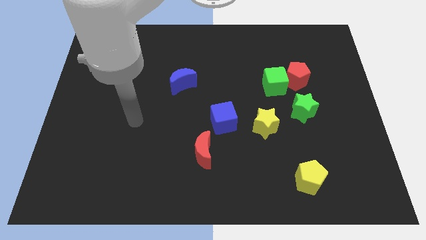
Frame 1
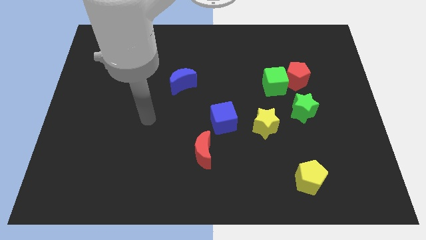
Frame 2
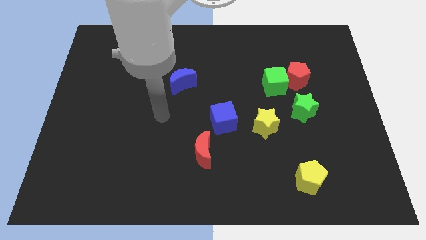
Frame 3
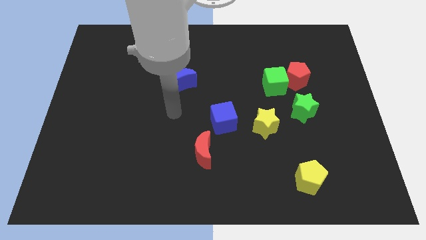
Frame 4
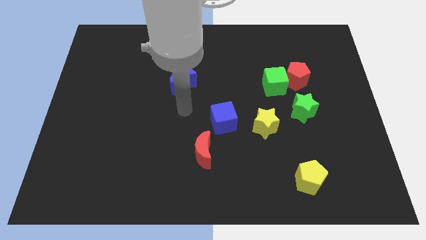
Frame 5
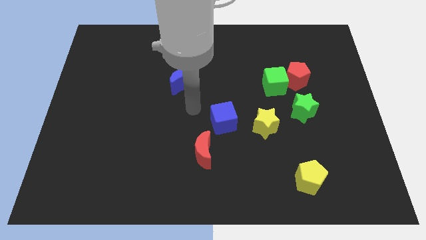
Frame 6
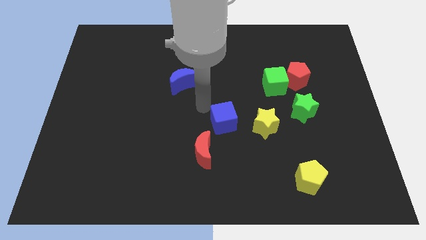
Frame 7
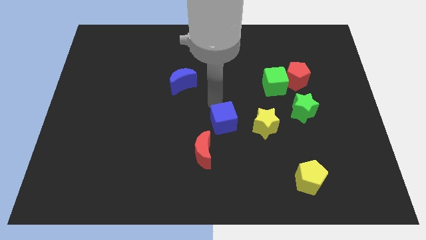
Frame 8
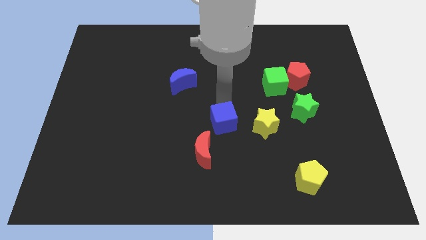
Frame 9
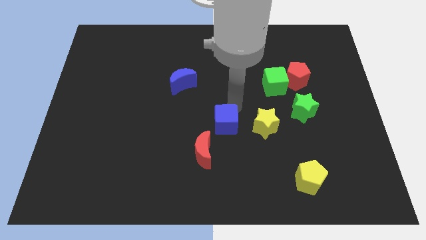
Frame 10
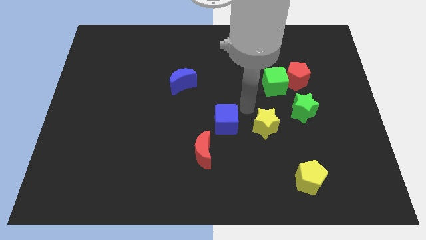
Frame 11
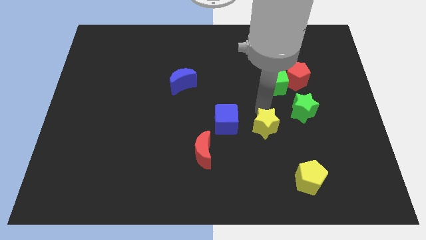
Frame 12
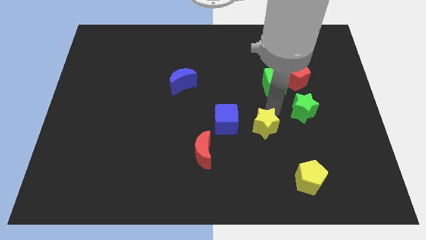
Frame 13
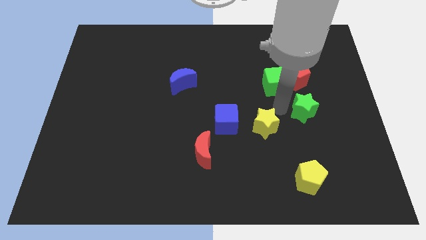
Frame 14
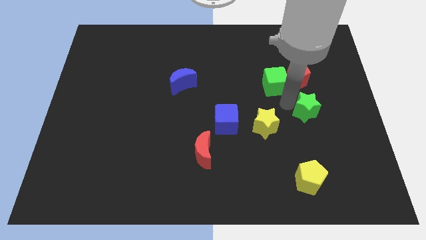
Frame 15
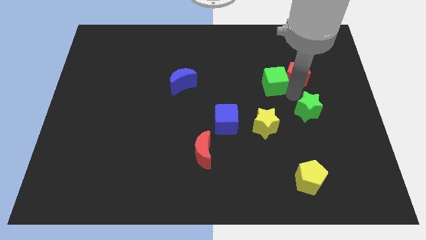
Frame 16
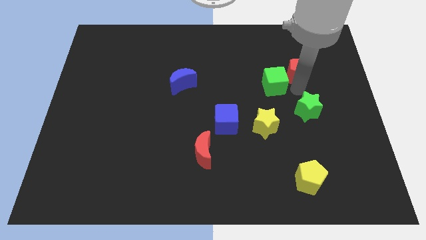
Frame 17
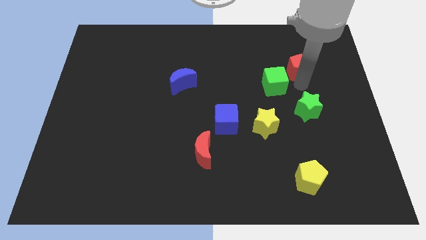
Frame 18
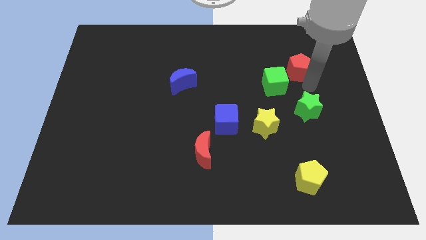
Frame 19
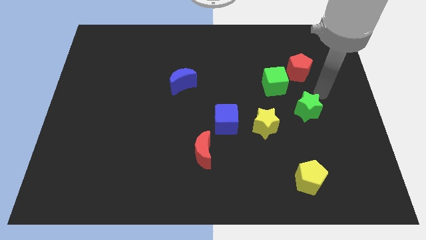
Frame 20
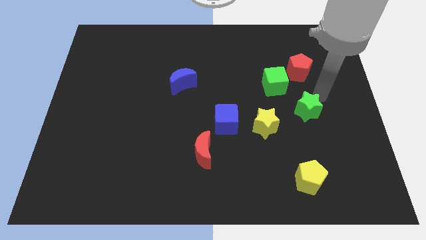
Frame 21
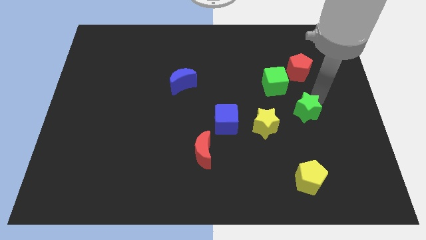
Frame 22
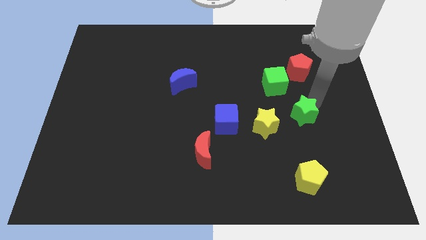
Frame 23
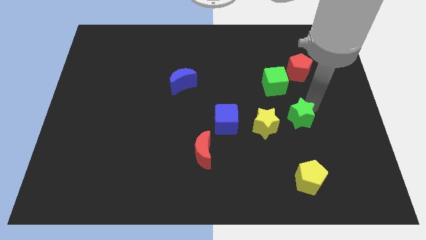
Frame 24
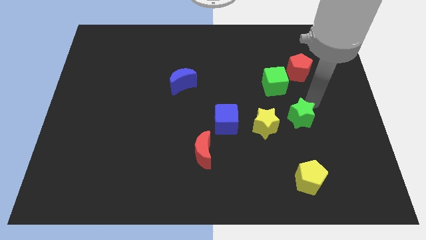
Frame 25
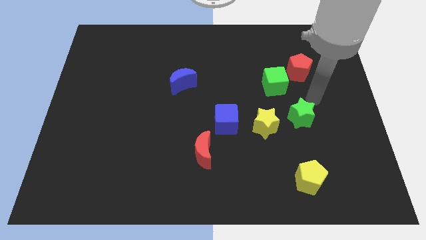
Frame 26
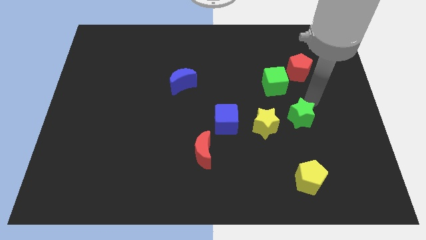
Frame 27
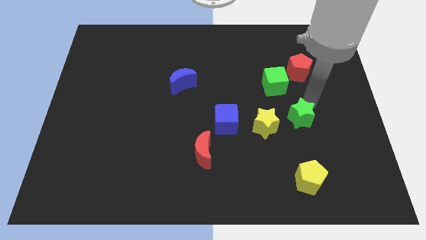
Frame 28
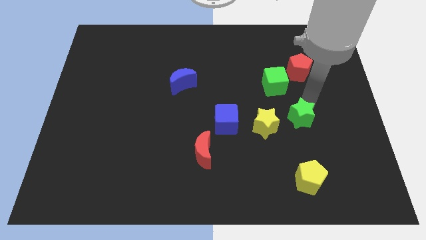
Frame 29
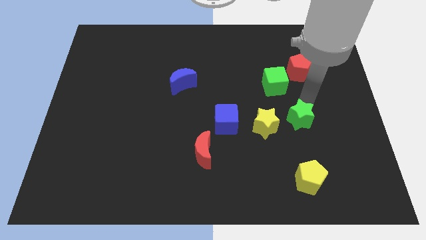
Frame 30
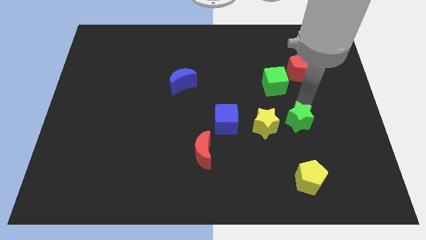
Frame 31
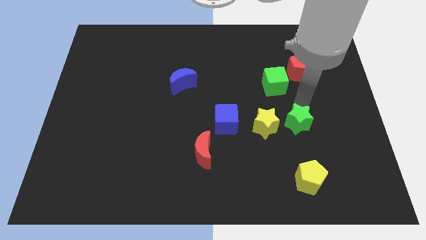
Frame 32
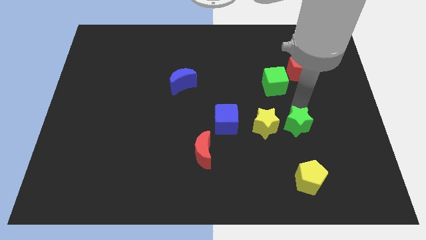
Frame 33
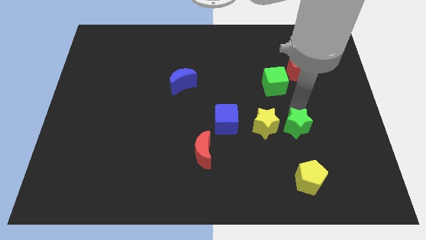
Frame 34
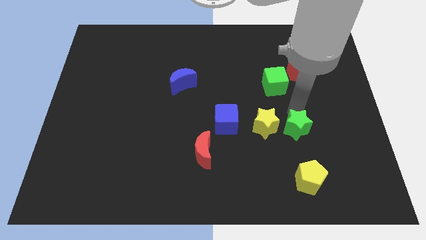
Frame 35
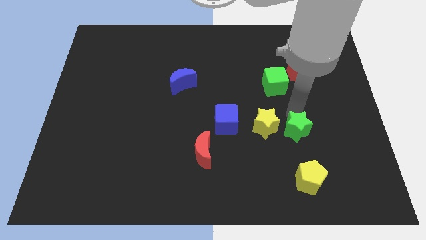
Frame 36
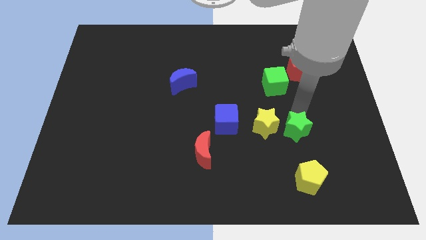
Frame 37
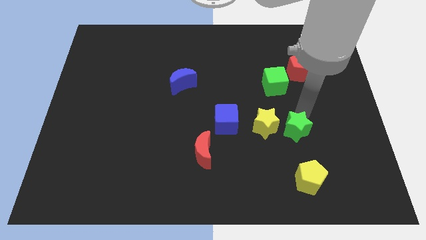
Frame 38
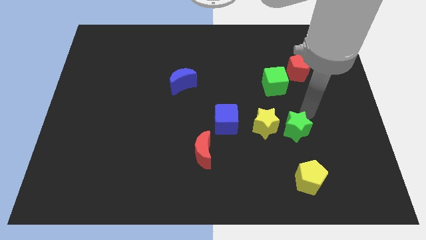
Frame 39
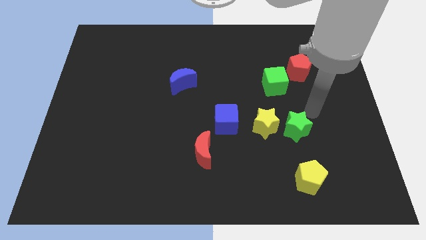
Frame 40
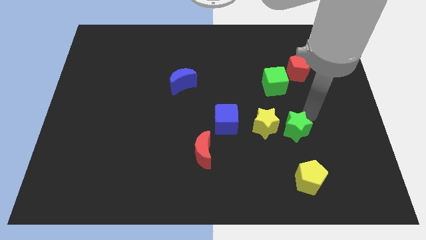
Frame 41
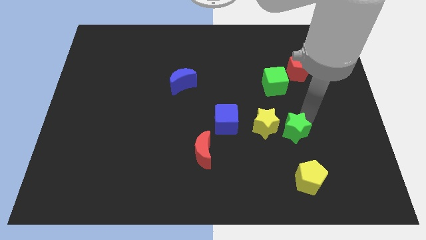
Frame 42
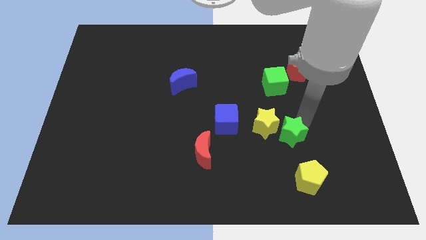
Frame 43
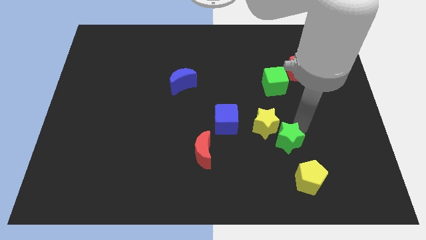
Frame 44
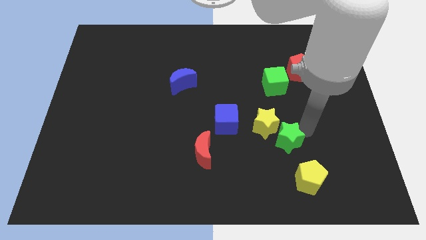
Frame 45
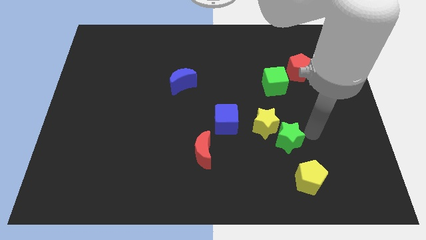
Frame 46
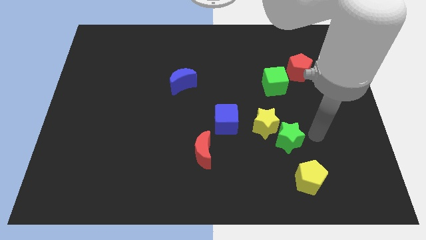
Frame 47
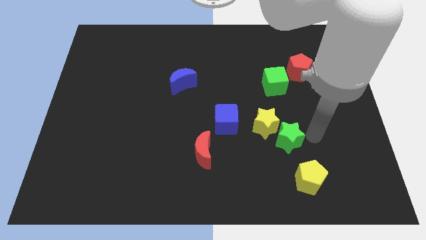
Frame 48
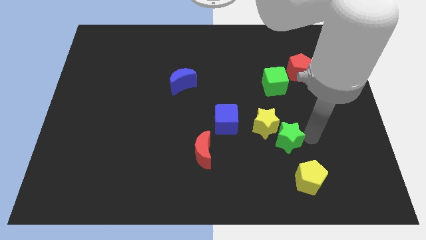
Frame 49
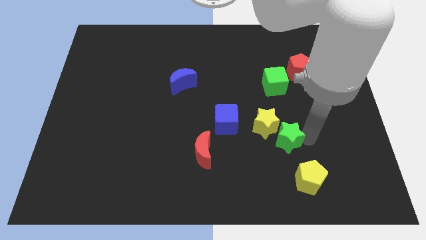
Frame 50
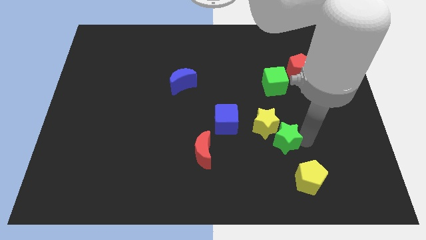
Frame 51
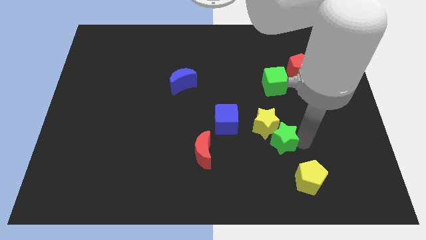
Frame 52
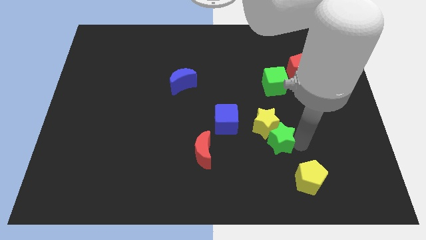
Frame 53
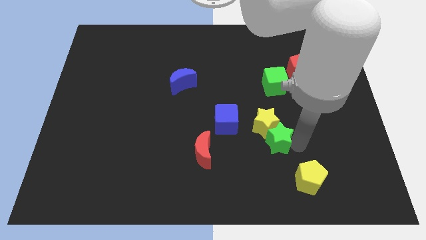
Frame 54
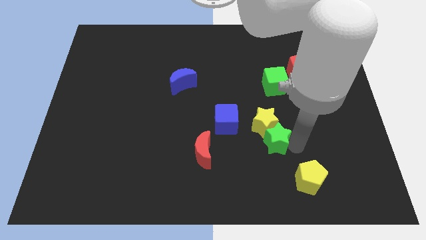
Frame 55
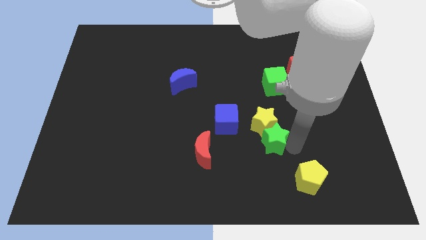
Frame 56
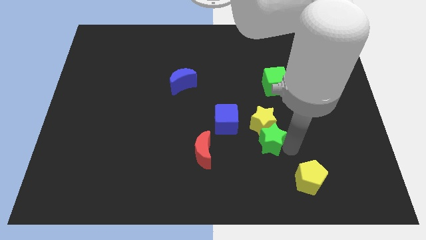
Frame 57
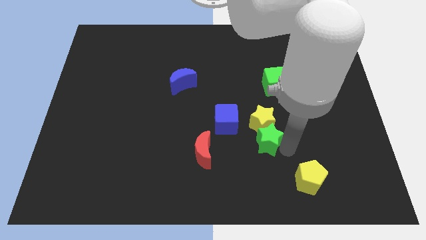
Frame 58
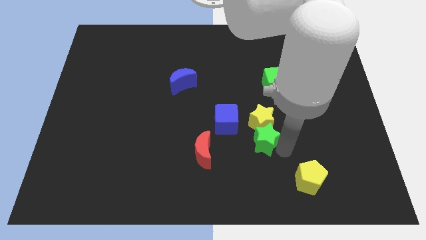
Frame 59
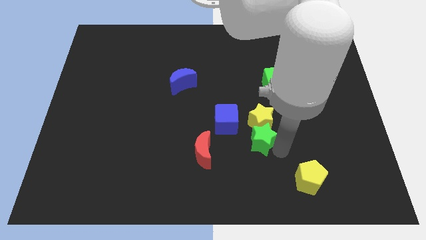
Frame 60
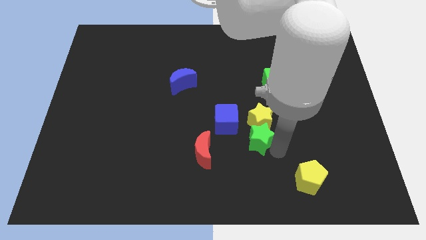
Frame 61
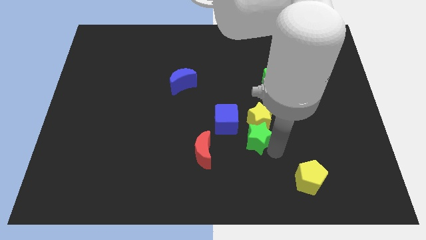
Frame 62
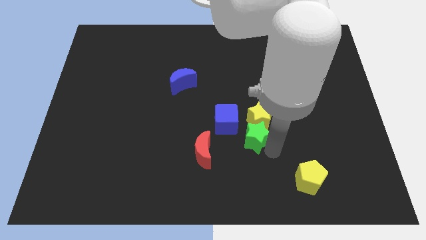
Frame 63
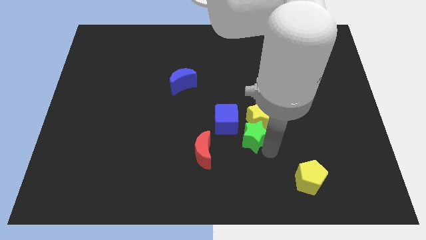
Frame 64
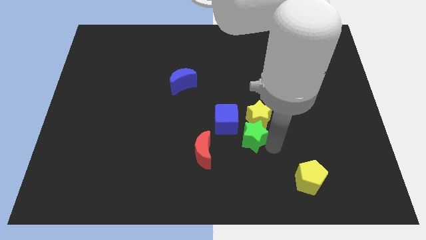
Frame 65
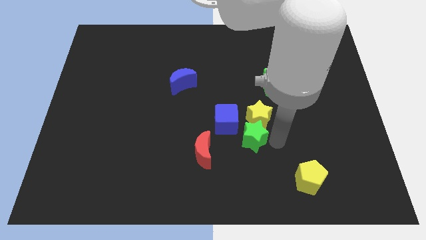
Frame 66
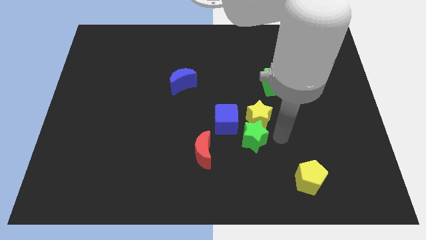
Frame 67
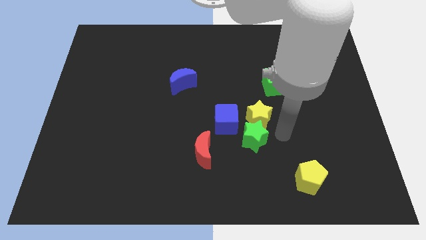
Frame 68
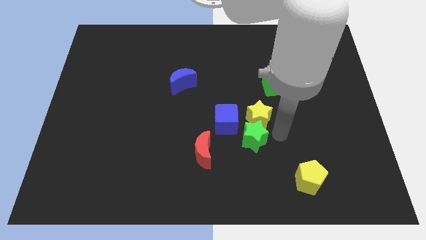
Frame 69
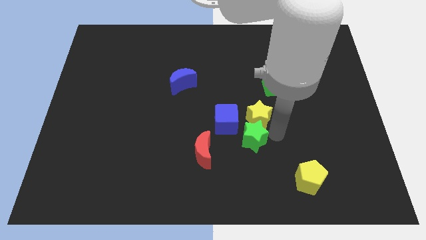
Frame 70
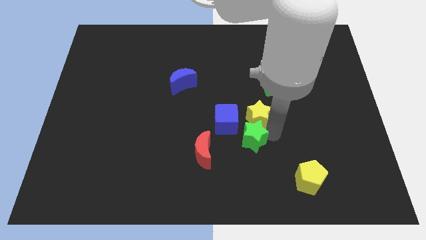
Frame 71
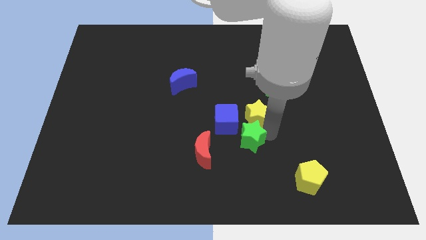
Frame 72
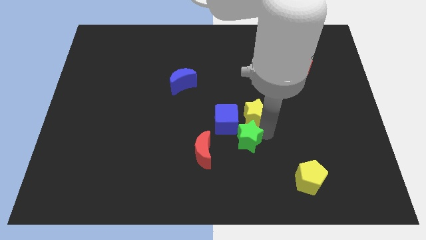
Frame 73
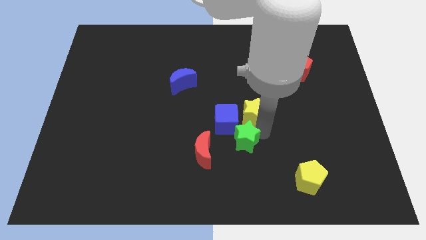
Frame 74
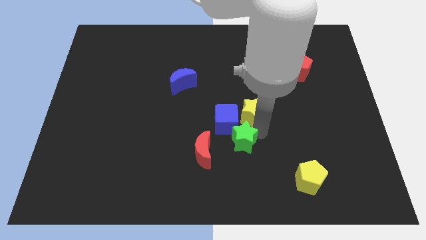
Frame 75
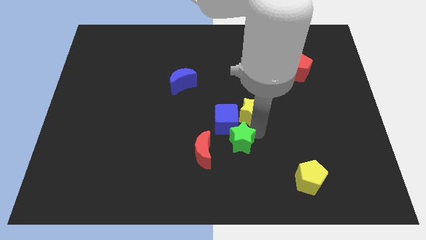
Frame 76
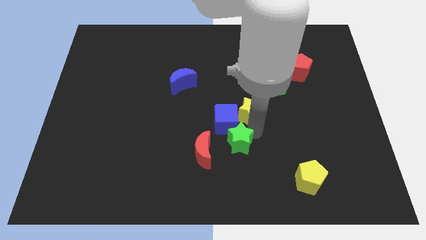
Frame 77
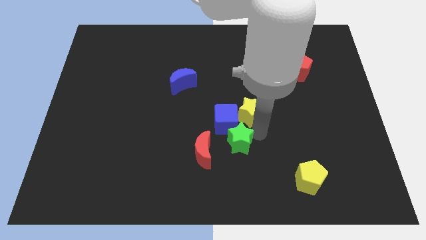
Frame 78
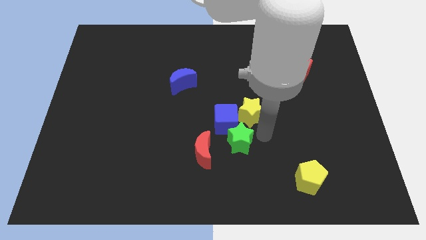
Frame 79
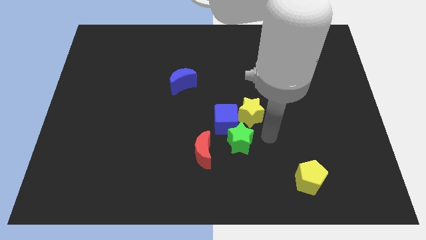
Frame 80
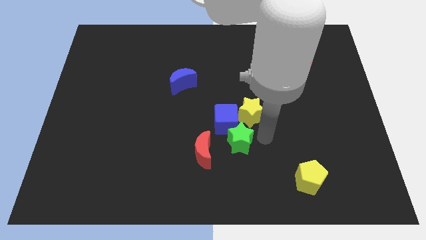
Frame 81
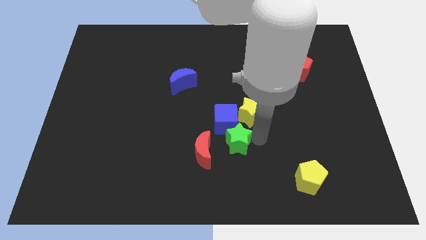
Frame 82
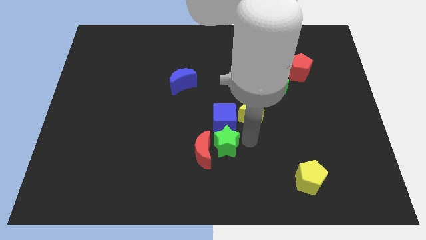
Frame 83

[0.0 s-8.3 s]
put the green star close to the red moon
